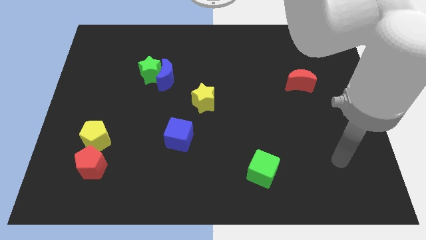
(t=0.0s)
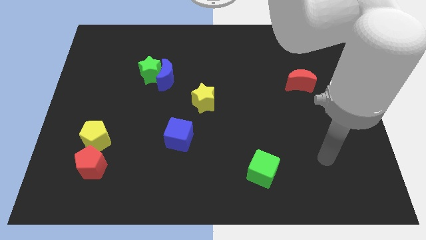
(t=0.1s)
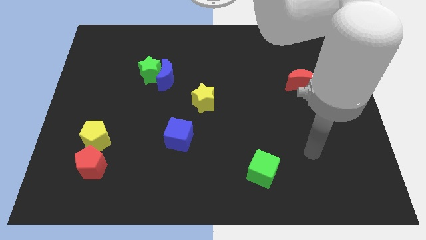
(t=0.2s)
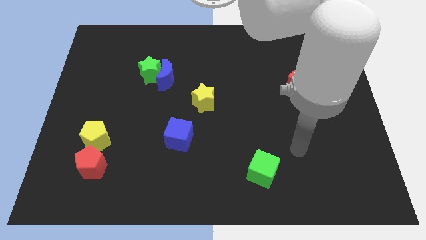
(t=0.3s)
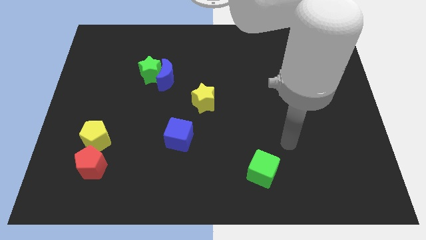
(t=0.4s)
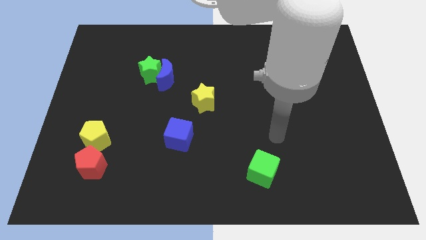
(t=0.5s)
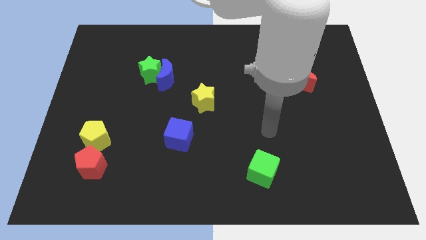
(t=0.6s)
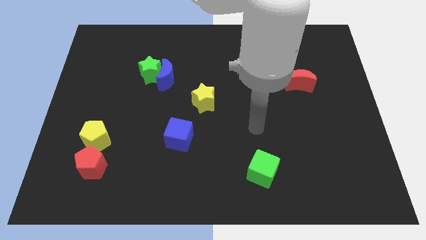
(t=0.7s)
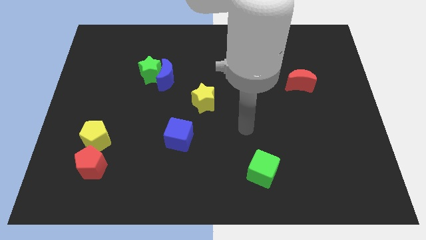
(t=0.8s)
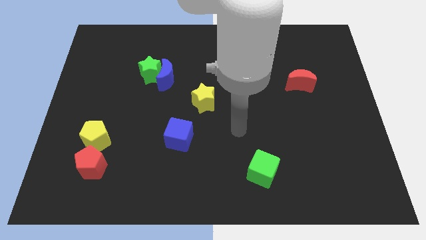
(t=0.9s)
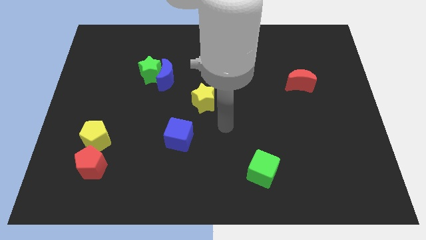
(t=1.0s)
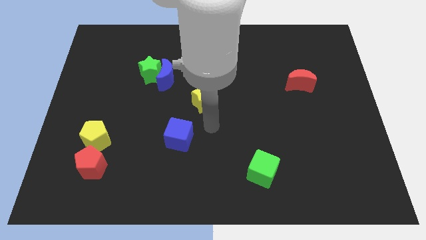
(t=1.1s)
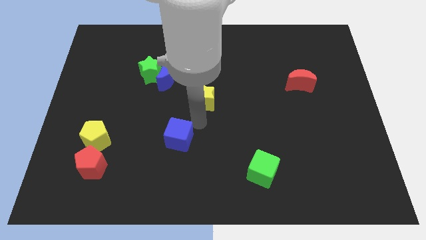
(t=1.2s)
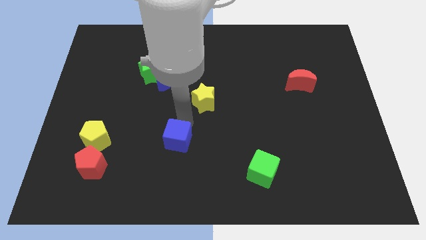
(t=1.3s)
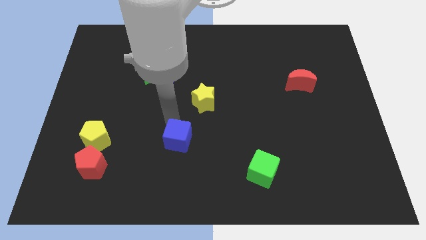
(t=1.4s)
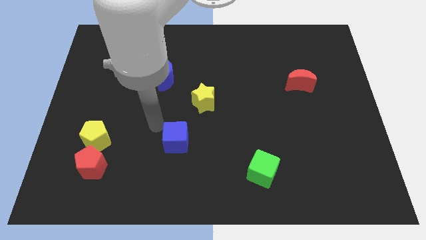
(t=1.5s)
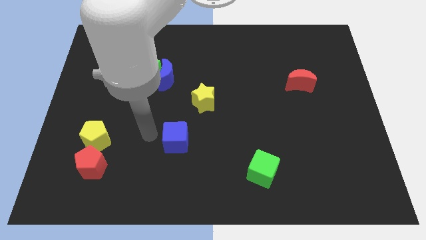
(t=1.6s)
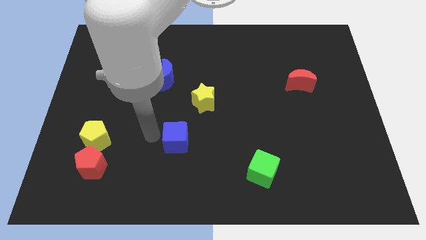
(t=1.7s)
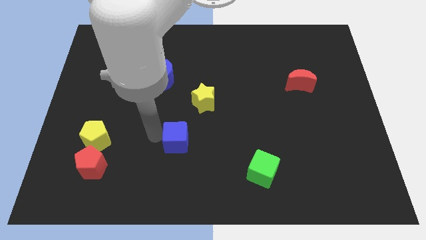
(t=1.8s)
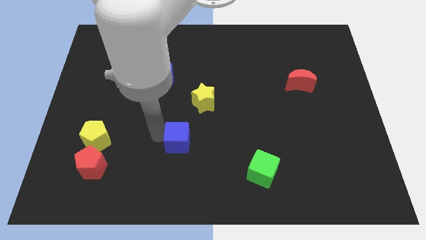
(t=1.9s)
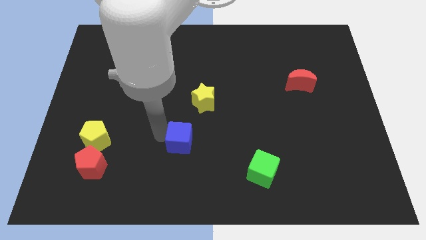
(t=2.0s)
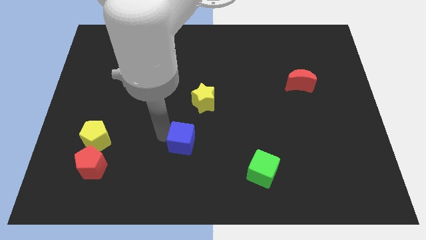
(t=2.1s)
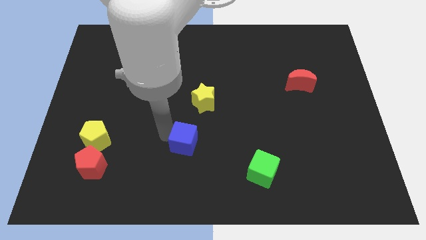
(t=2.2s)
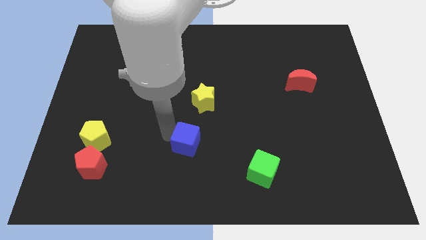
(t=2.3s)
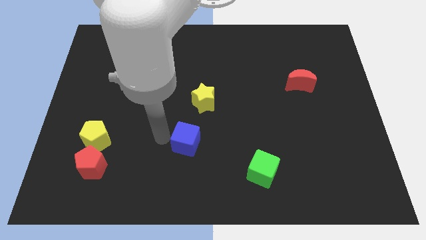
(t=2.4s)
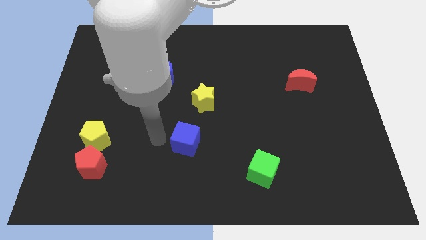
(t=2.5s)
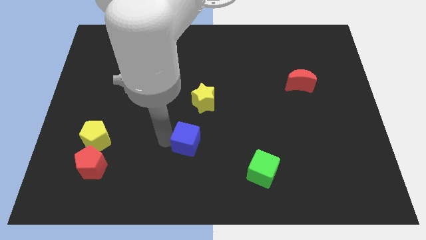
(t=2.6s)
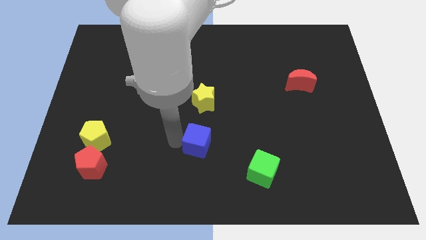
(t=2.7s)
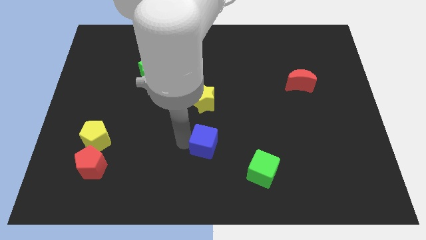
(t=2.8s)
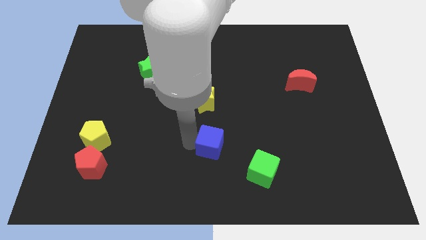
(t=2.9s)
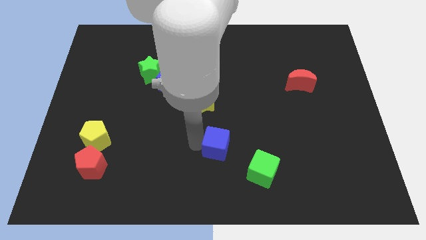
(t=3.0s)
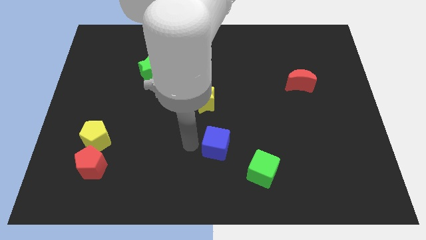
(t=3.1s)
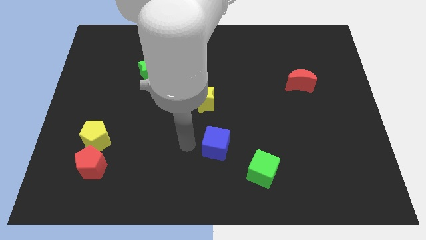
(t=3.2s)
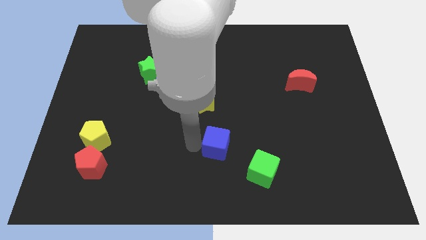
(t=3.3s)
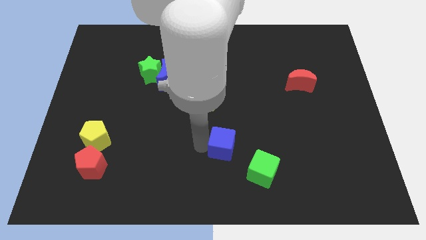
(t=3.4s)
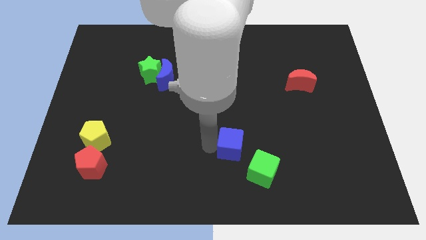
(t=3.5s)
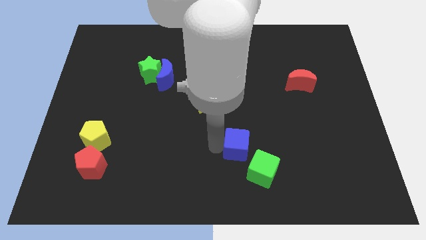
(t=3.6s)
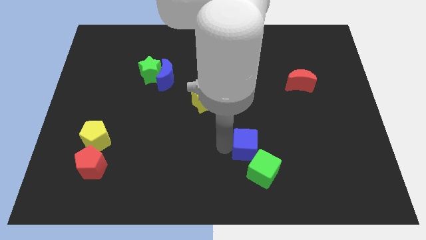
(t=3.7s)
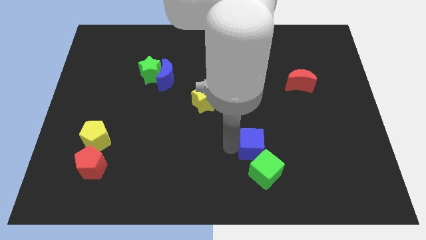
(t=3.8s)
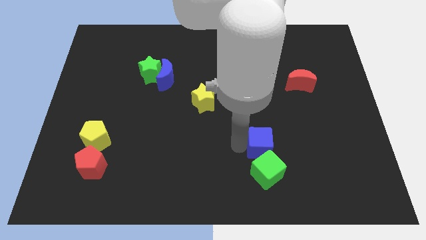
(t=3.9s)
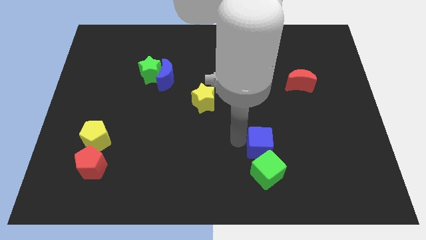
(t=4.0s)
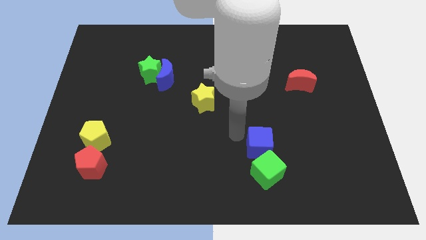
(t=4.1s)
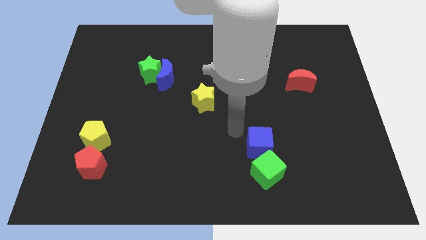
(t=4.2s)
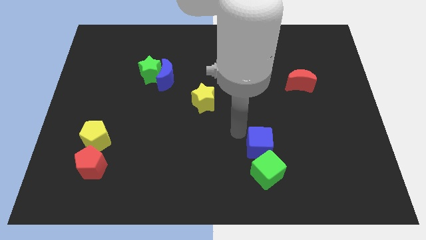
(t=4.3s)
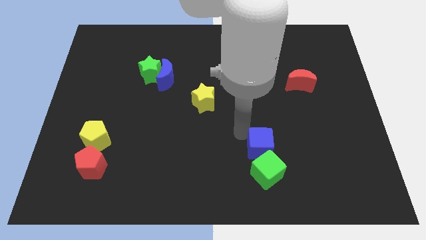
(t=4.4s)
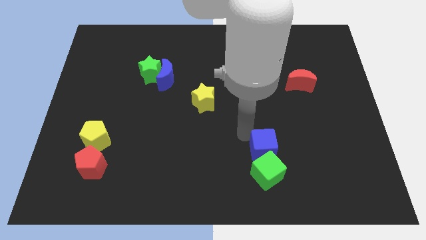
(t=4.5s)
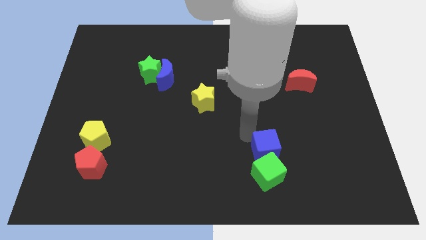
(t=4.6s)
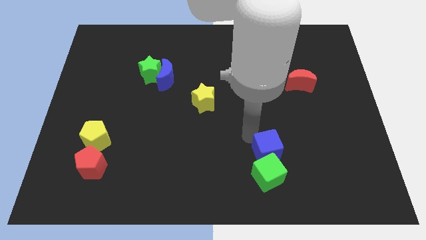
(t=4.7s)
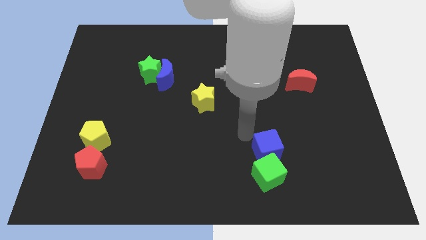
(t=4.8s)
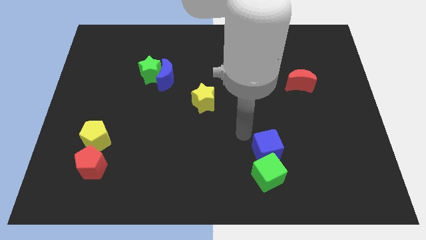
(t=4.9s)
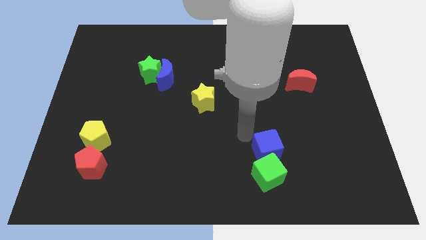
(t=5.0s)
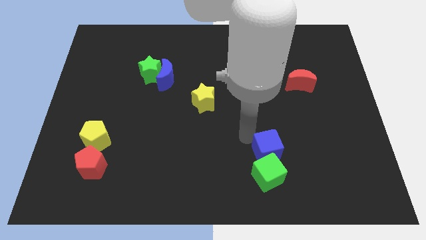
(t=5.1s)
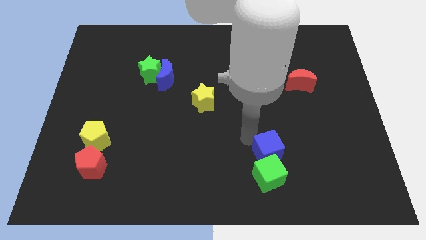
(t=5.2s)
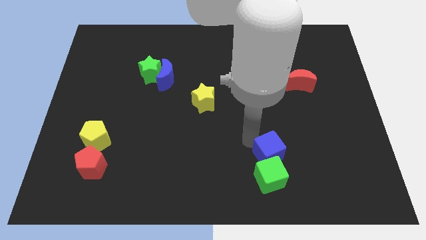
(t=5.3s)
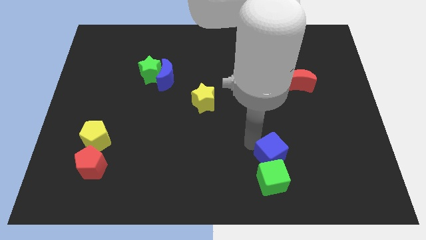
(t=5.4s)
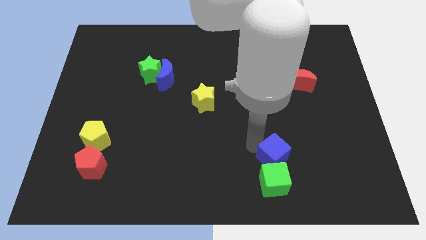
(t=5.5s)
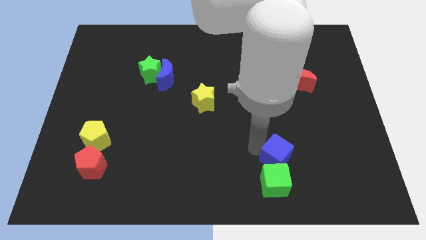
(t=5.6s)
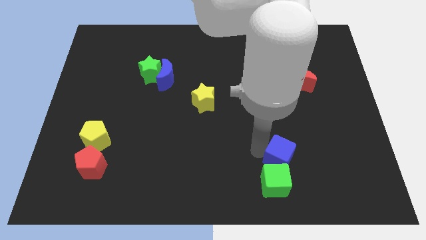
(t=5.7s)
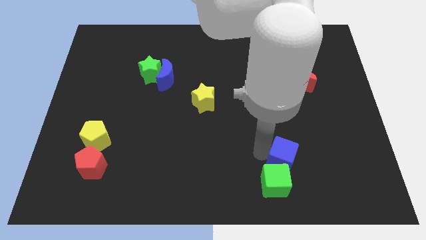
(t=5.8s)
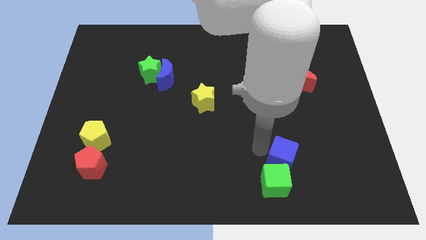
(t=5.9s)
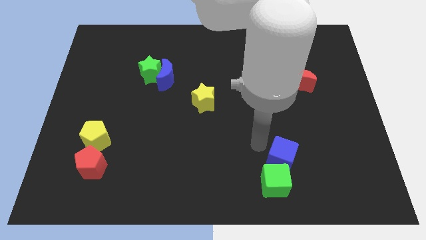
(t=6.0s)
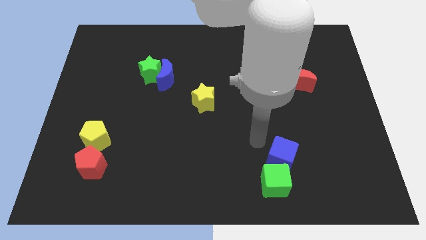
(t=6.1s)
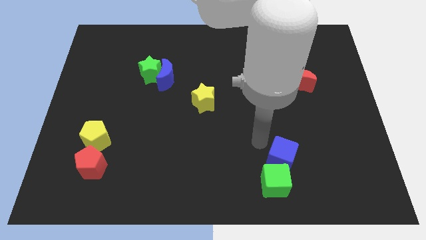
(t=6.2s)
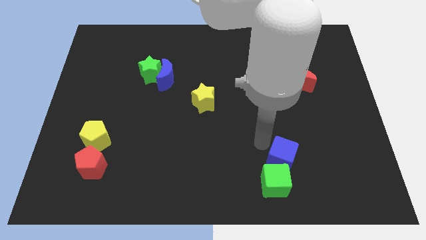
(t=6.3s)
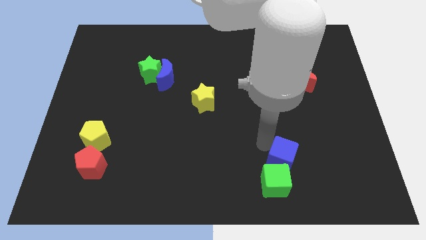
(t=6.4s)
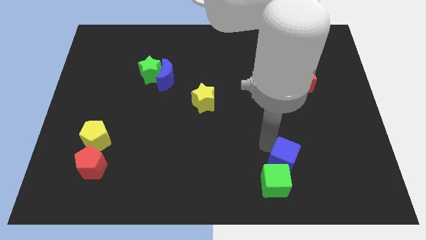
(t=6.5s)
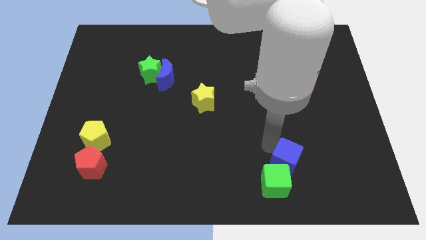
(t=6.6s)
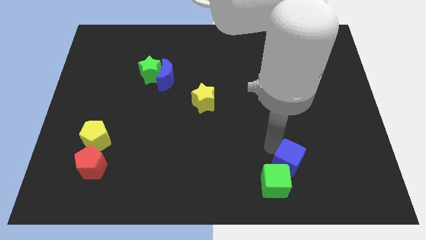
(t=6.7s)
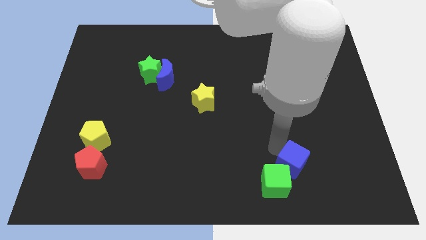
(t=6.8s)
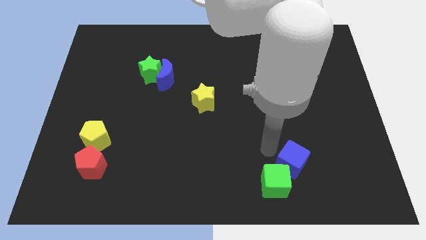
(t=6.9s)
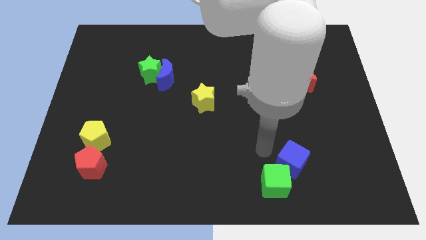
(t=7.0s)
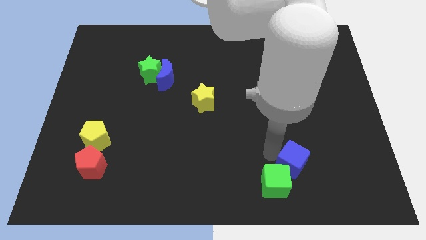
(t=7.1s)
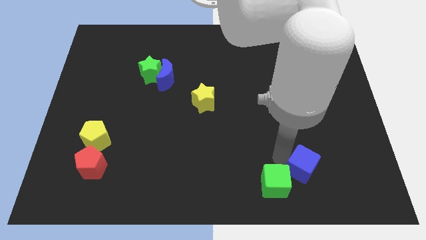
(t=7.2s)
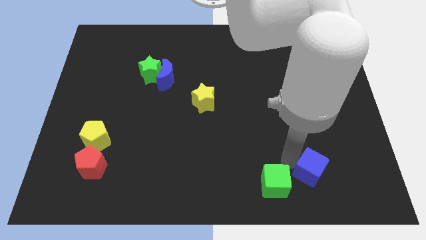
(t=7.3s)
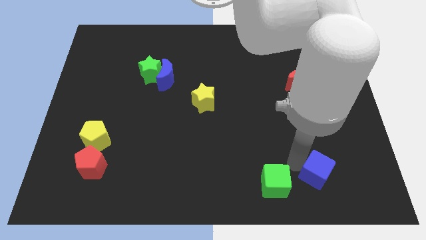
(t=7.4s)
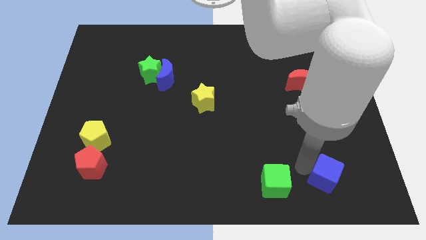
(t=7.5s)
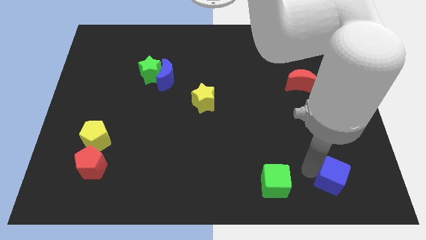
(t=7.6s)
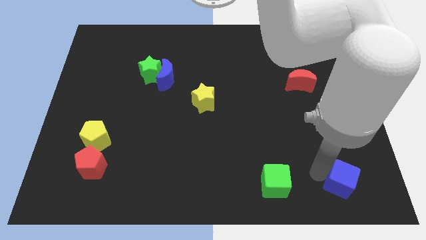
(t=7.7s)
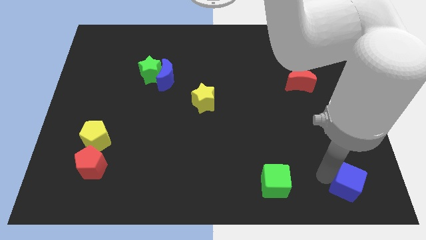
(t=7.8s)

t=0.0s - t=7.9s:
slide the blue cube to the bottom right of the board
